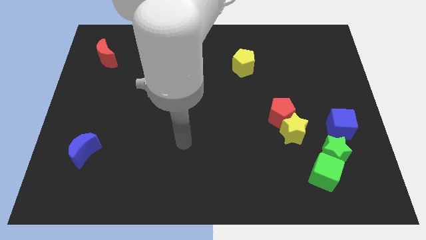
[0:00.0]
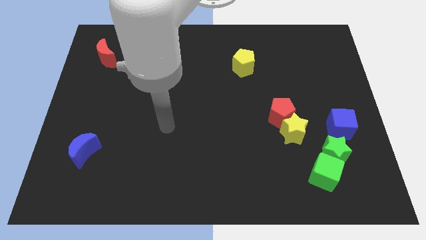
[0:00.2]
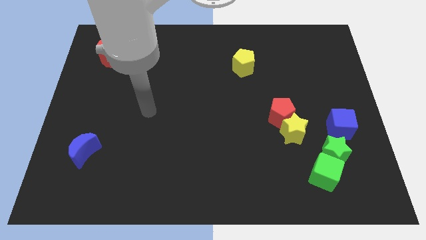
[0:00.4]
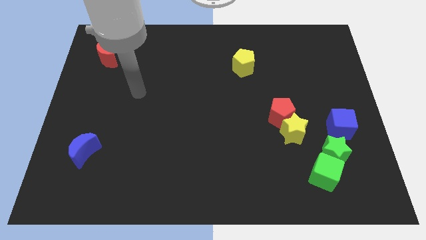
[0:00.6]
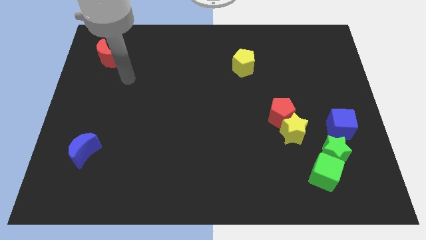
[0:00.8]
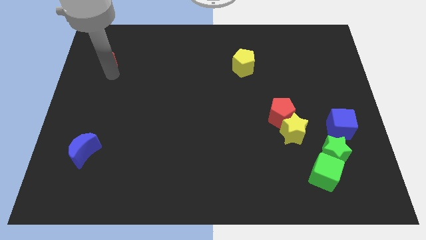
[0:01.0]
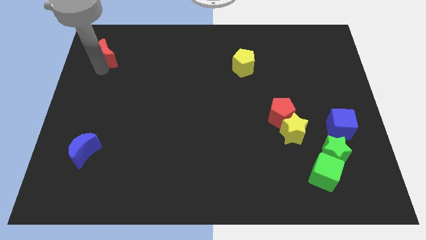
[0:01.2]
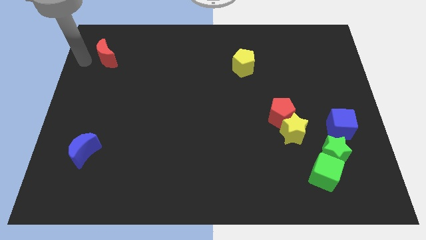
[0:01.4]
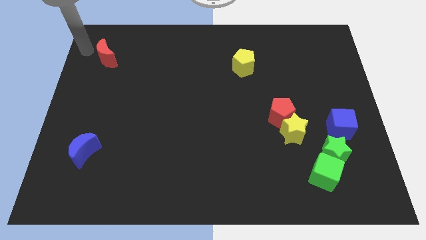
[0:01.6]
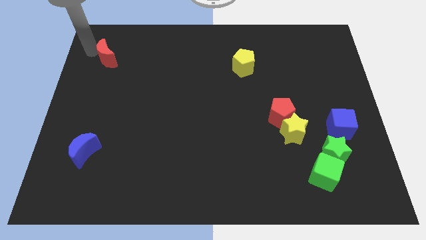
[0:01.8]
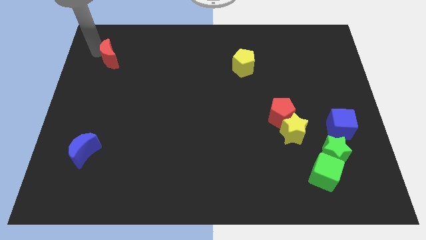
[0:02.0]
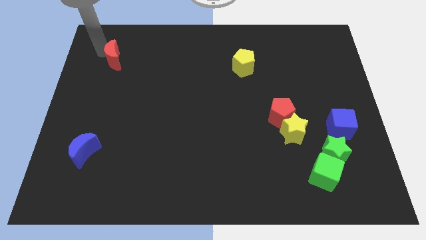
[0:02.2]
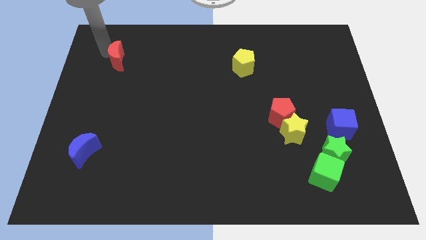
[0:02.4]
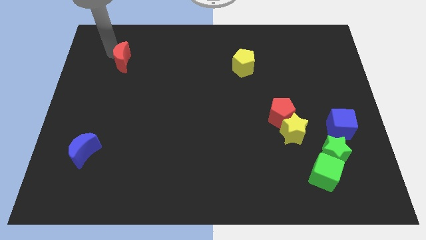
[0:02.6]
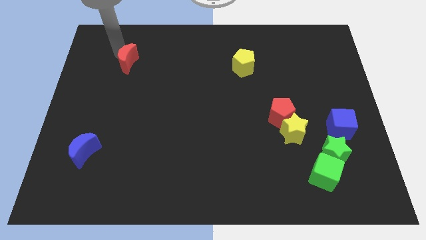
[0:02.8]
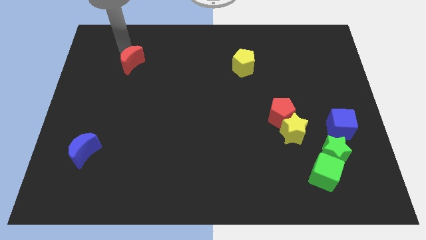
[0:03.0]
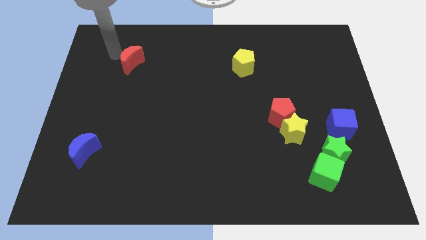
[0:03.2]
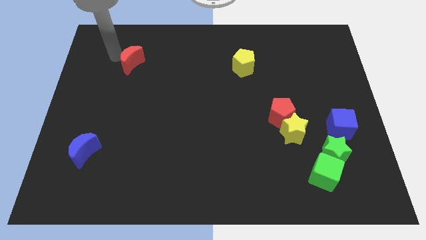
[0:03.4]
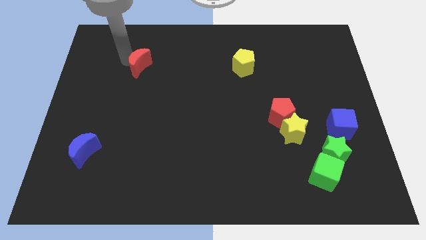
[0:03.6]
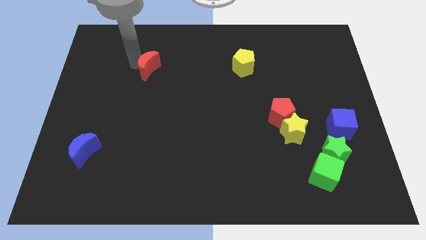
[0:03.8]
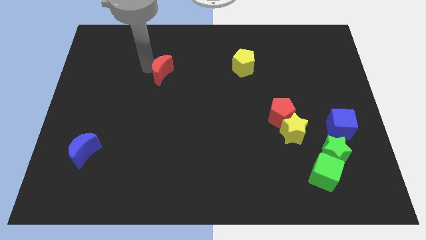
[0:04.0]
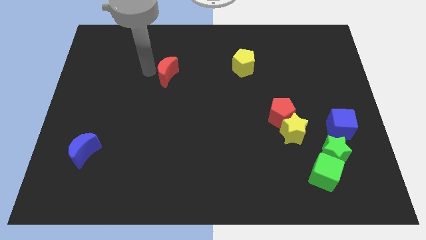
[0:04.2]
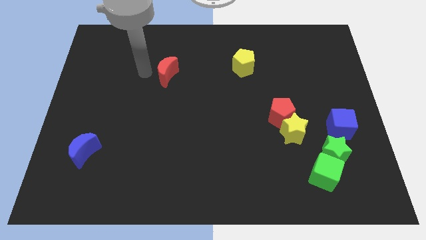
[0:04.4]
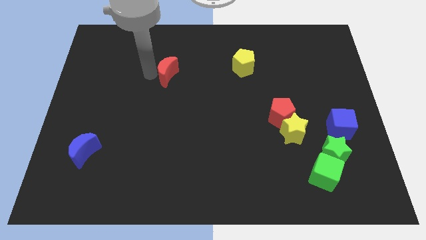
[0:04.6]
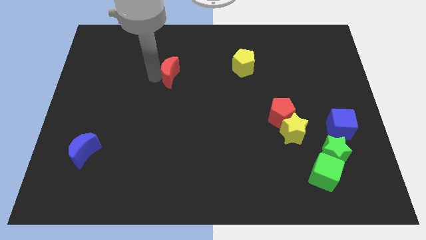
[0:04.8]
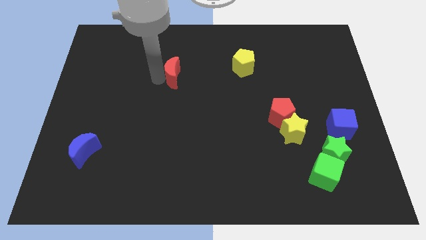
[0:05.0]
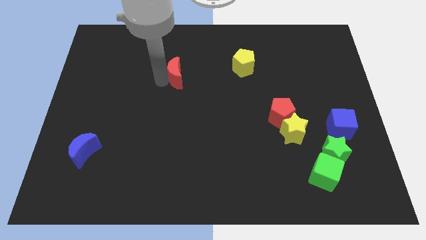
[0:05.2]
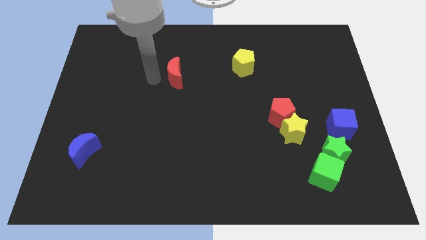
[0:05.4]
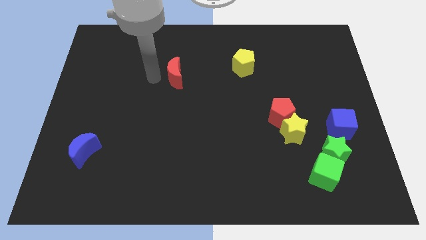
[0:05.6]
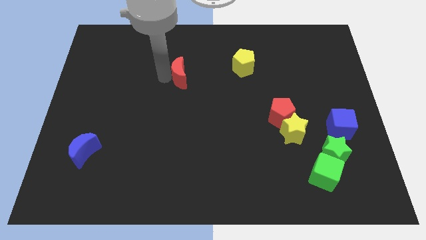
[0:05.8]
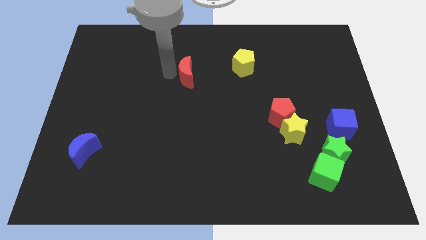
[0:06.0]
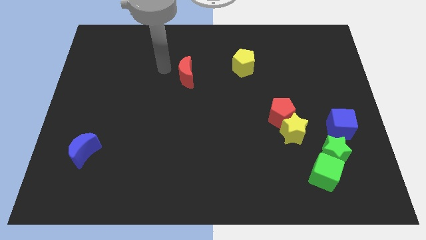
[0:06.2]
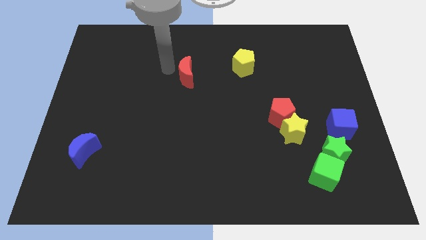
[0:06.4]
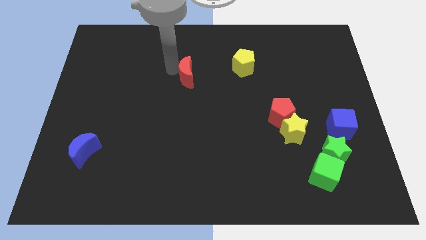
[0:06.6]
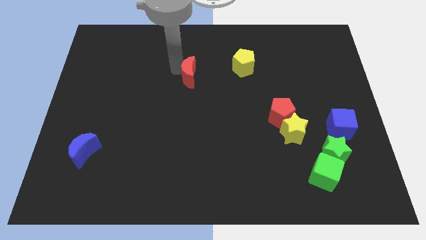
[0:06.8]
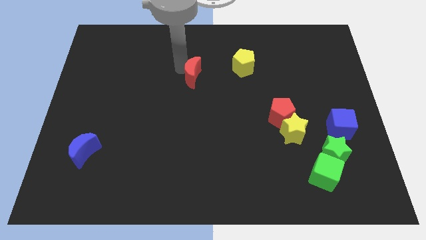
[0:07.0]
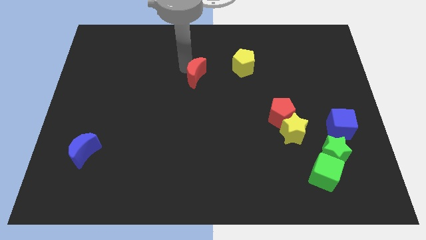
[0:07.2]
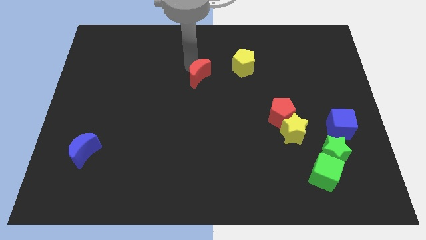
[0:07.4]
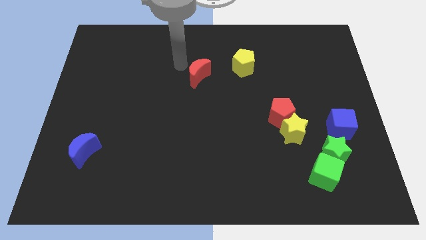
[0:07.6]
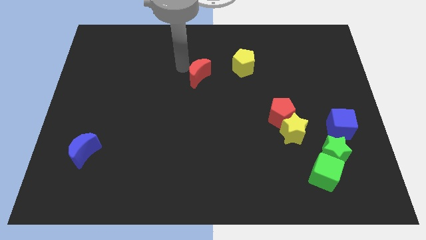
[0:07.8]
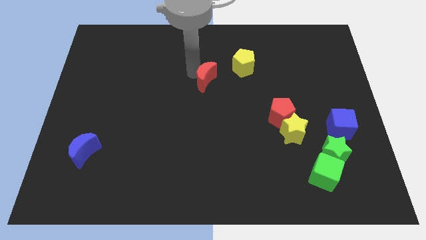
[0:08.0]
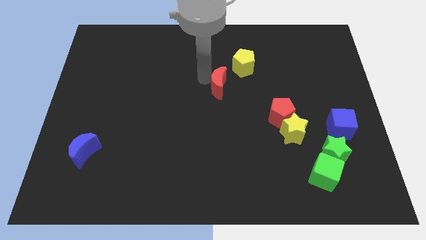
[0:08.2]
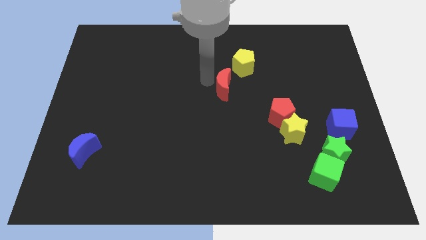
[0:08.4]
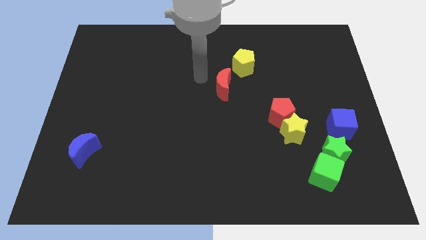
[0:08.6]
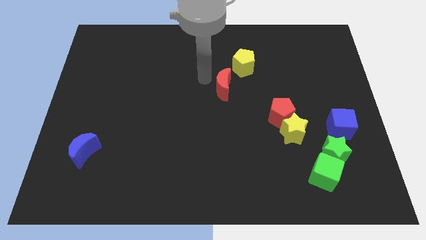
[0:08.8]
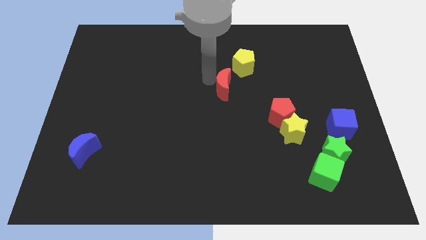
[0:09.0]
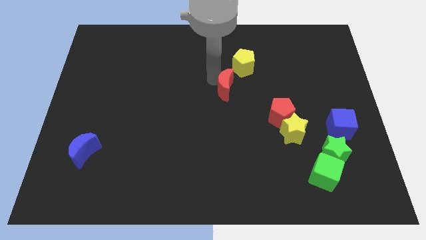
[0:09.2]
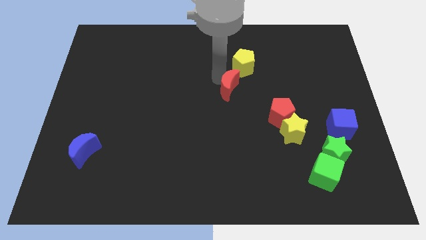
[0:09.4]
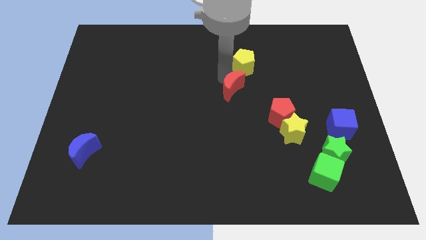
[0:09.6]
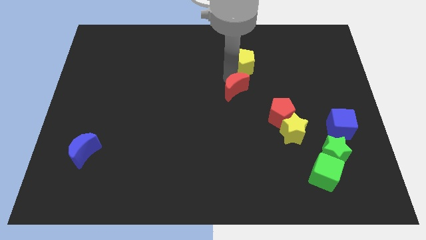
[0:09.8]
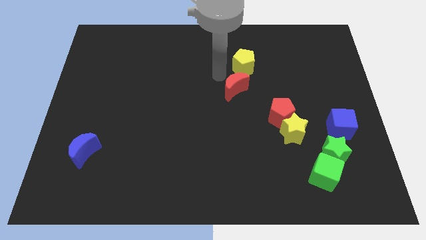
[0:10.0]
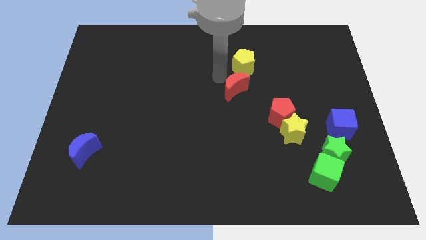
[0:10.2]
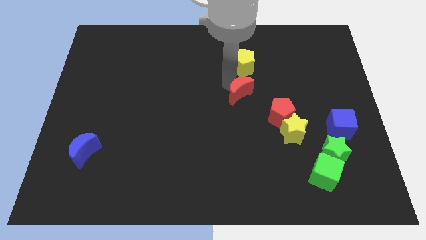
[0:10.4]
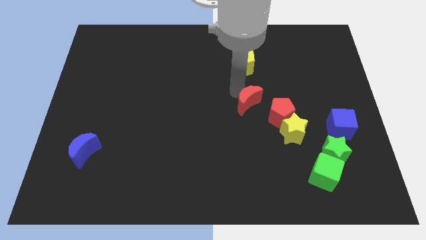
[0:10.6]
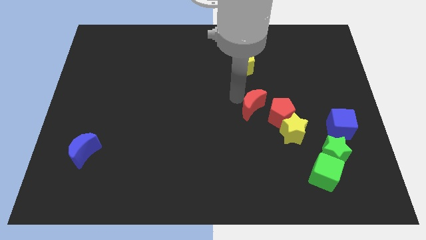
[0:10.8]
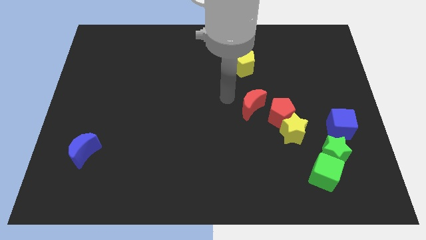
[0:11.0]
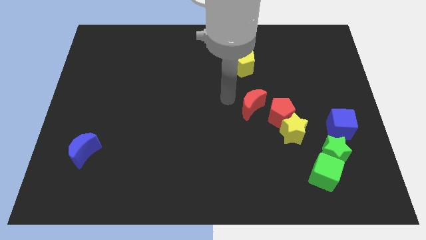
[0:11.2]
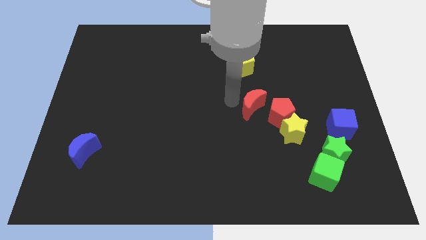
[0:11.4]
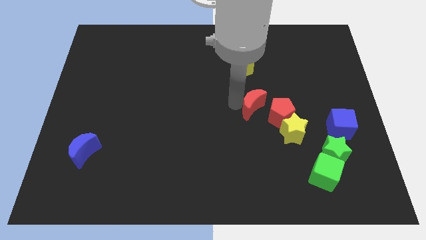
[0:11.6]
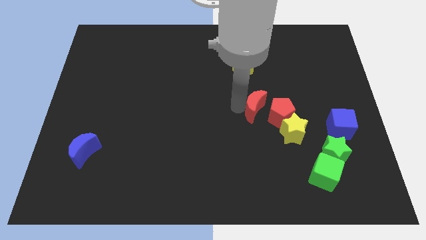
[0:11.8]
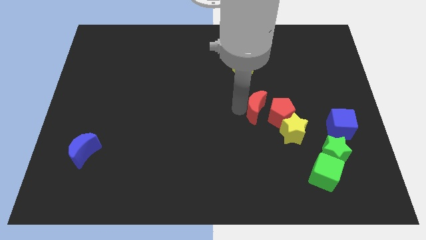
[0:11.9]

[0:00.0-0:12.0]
slide the red moon towards the red pentagon

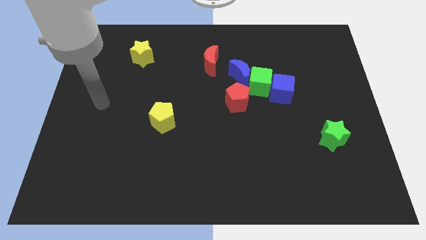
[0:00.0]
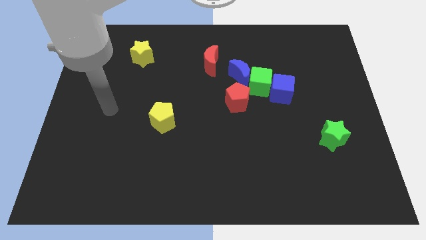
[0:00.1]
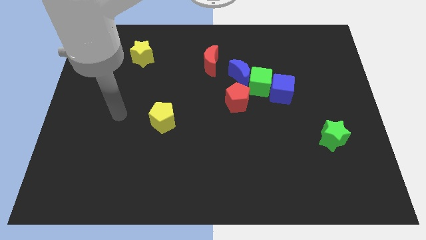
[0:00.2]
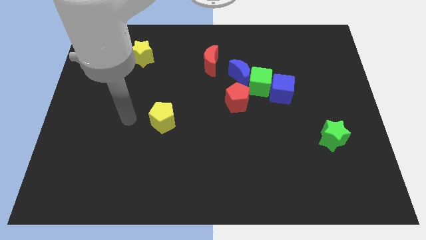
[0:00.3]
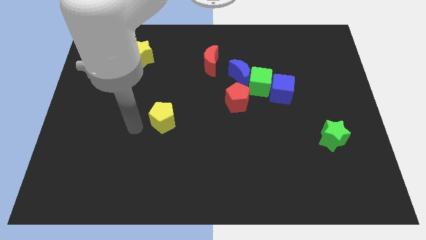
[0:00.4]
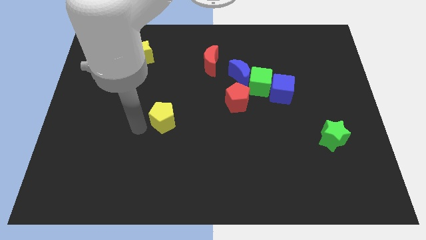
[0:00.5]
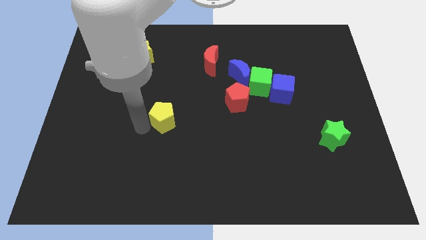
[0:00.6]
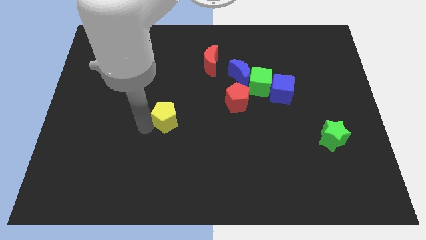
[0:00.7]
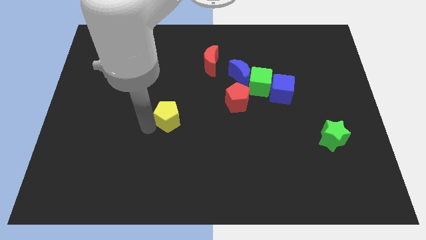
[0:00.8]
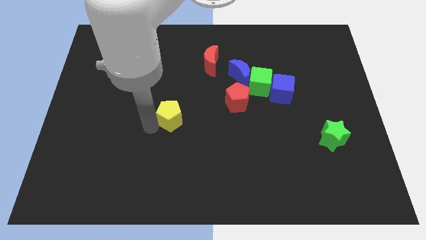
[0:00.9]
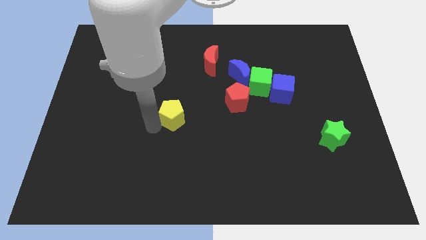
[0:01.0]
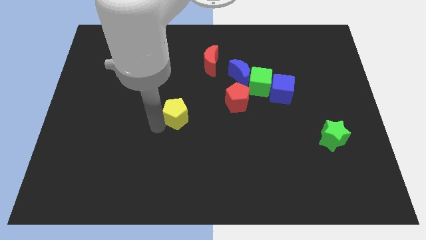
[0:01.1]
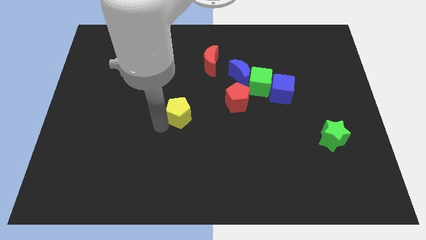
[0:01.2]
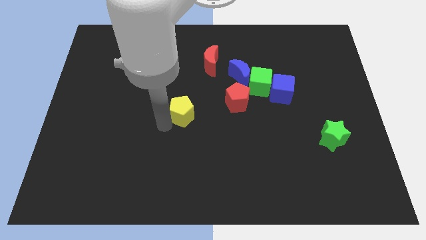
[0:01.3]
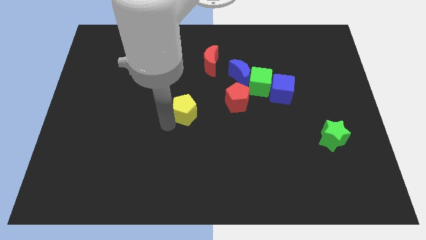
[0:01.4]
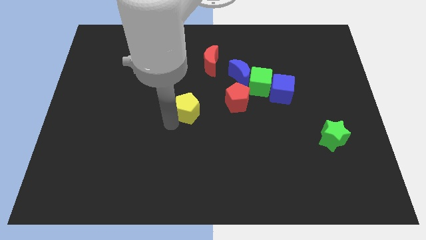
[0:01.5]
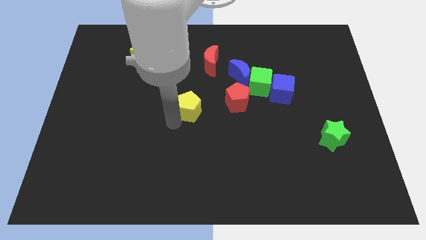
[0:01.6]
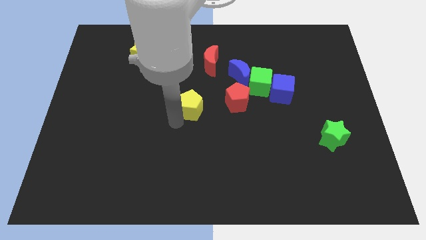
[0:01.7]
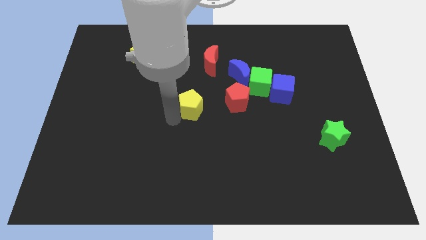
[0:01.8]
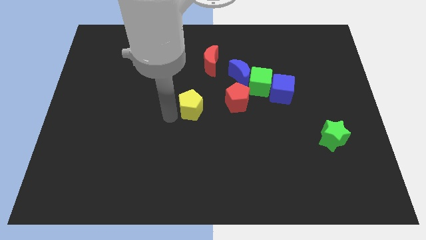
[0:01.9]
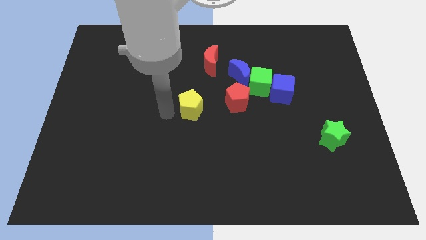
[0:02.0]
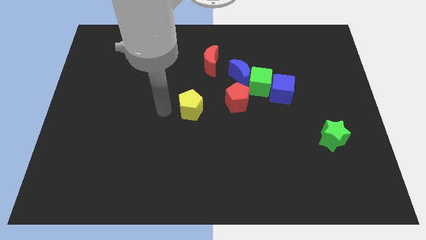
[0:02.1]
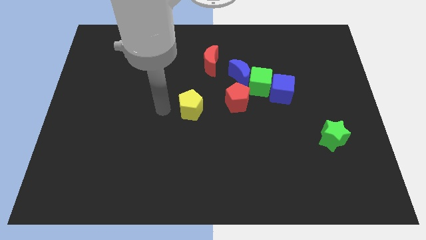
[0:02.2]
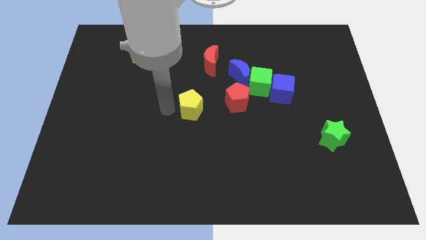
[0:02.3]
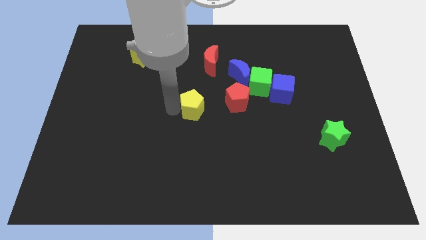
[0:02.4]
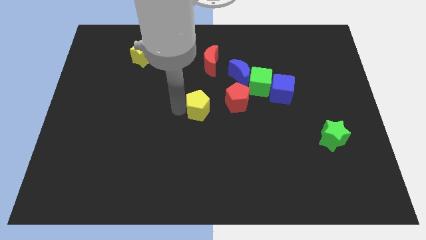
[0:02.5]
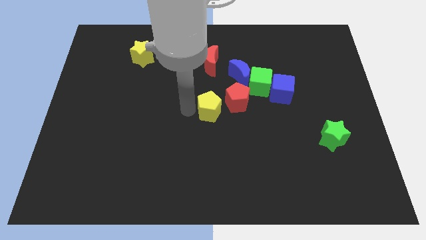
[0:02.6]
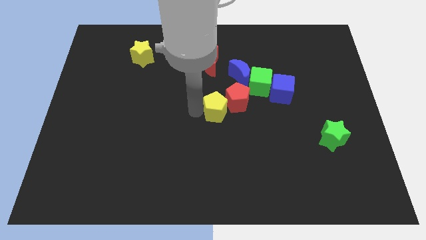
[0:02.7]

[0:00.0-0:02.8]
put the yellow pentagon next to the red pentagon
